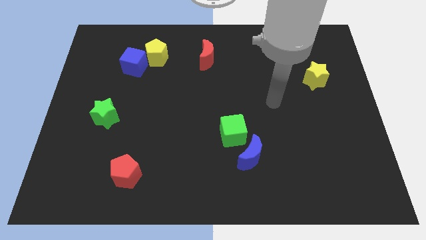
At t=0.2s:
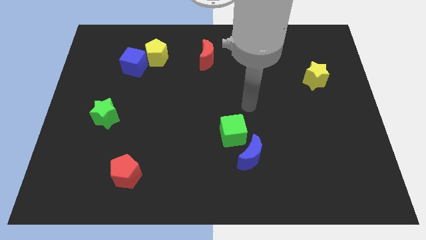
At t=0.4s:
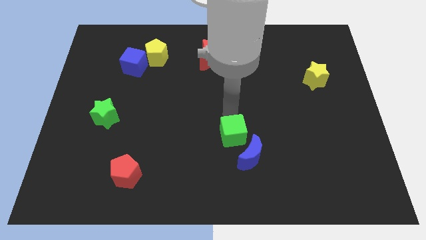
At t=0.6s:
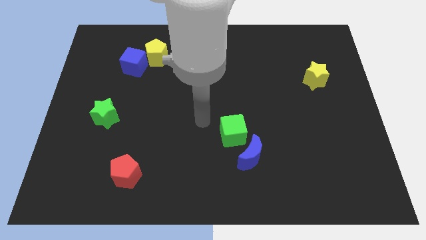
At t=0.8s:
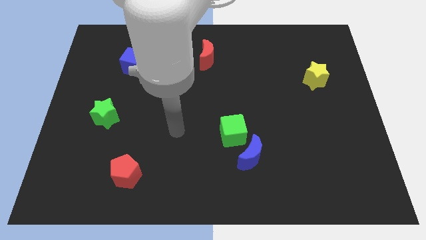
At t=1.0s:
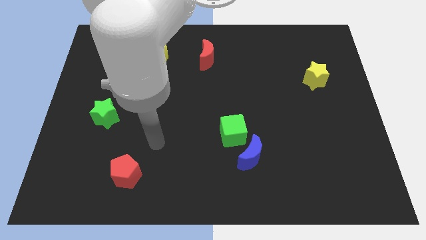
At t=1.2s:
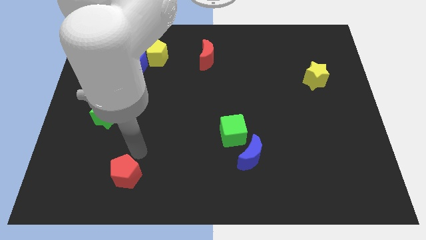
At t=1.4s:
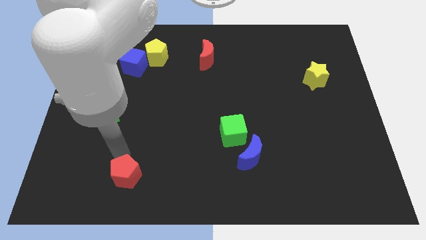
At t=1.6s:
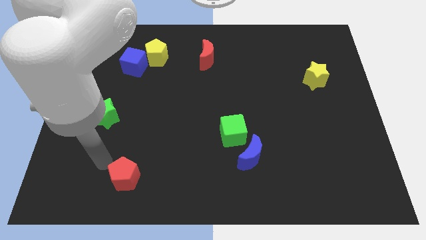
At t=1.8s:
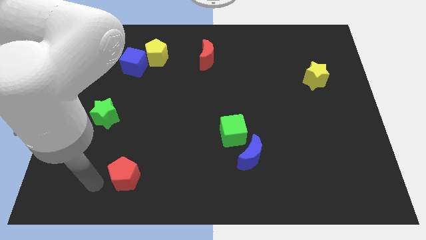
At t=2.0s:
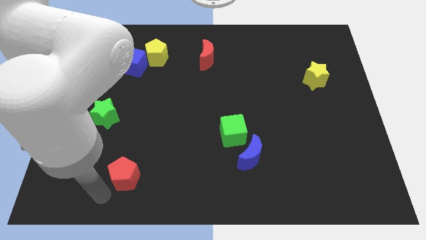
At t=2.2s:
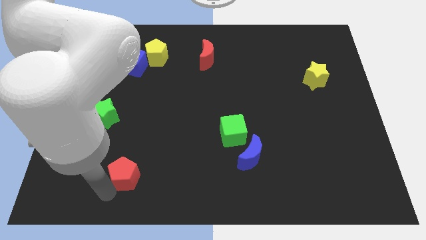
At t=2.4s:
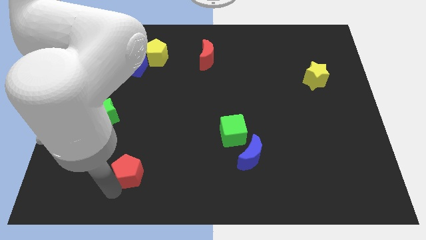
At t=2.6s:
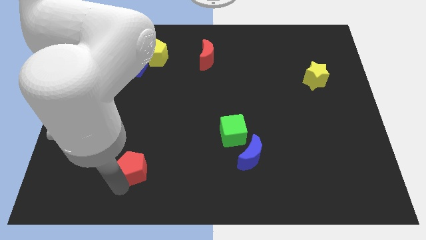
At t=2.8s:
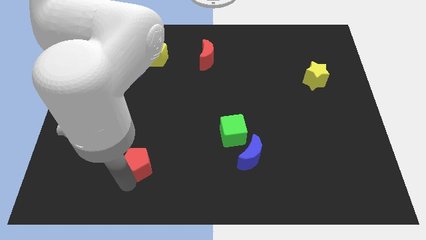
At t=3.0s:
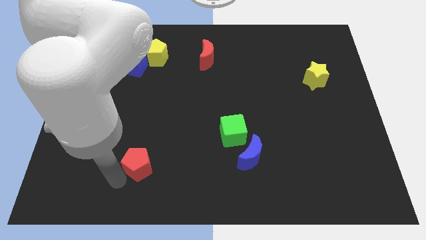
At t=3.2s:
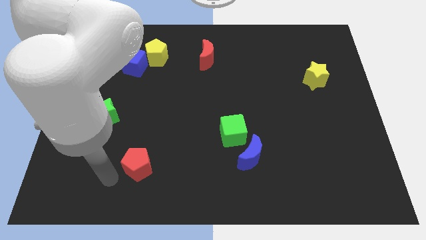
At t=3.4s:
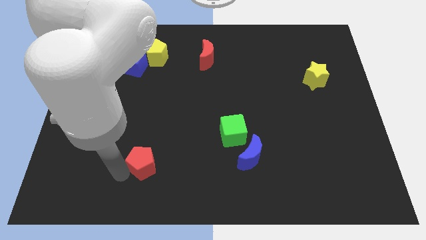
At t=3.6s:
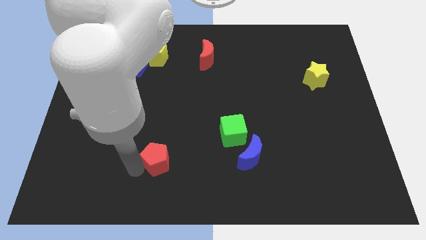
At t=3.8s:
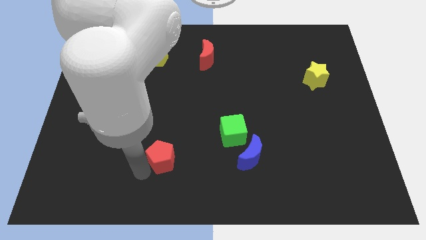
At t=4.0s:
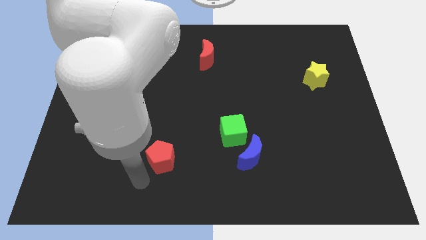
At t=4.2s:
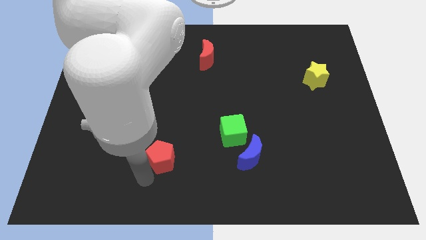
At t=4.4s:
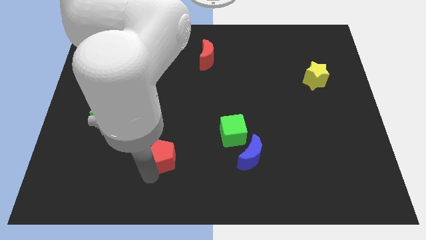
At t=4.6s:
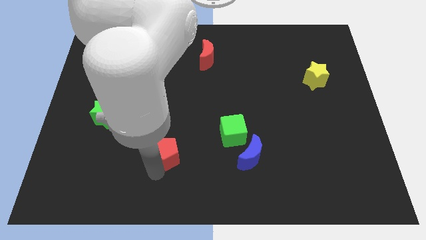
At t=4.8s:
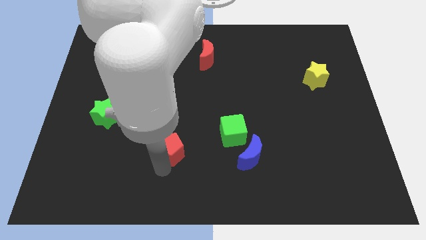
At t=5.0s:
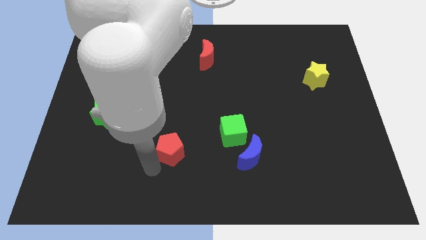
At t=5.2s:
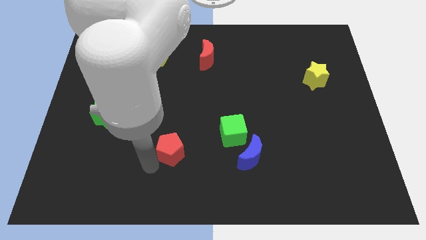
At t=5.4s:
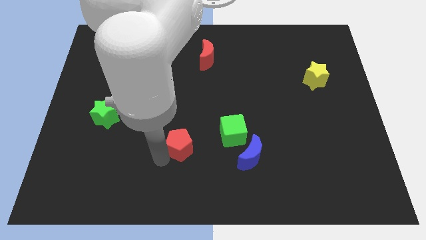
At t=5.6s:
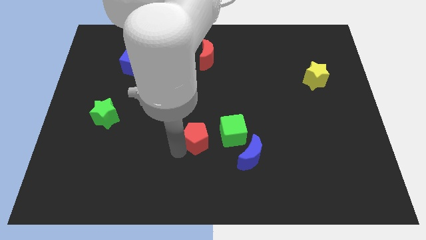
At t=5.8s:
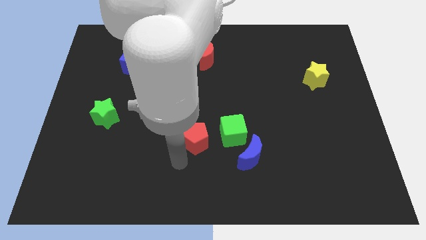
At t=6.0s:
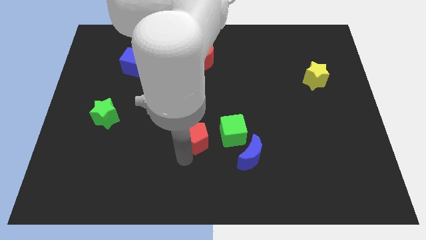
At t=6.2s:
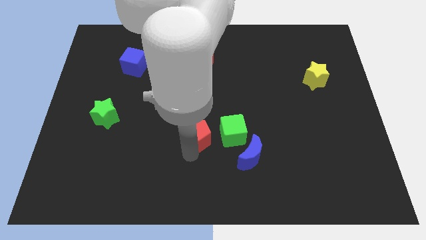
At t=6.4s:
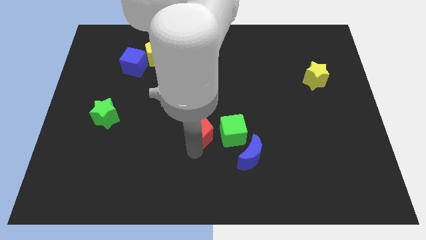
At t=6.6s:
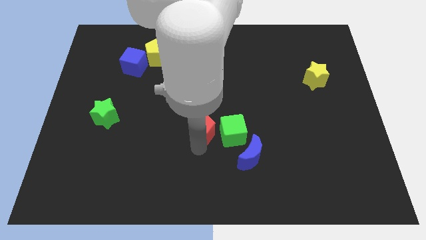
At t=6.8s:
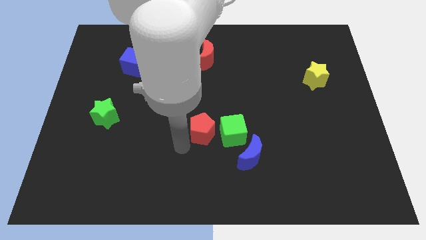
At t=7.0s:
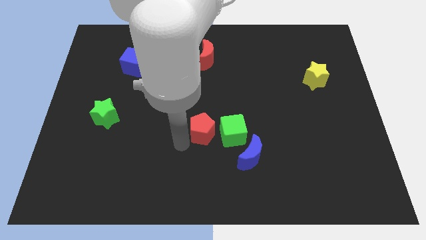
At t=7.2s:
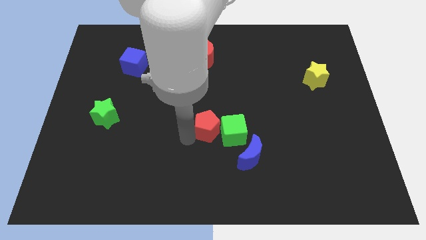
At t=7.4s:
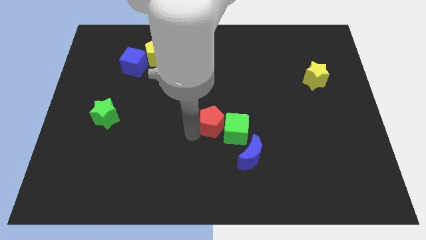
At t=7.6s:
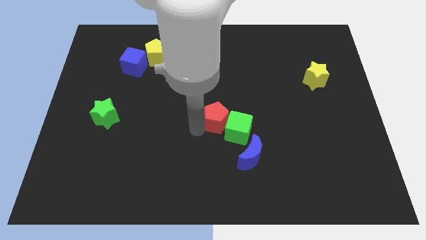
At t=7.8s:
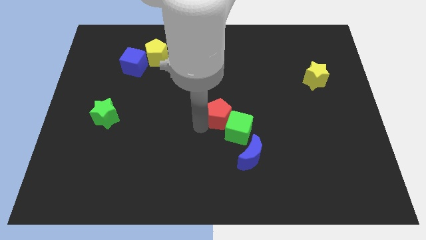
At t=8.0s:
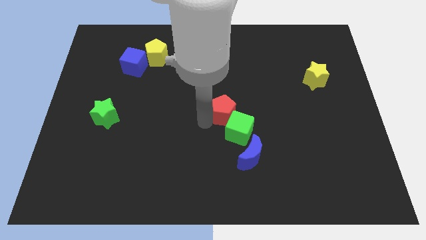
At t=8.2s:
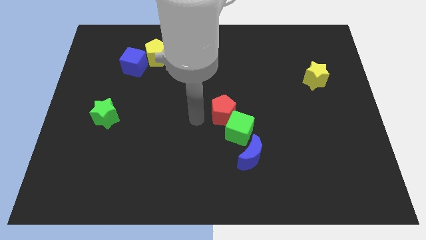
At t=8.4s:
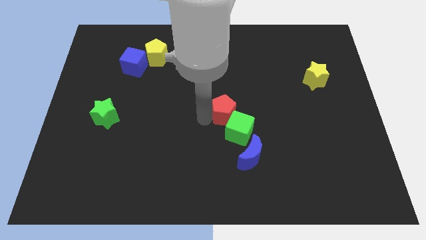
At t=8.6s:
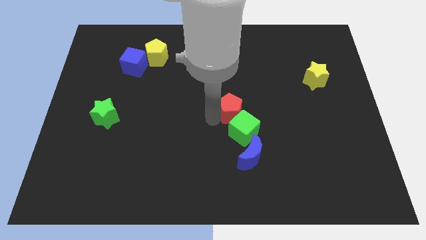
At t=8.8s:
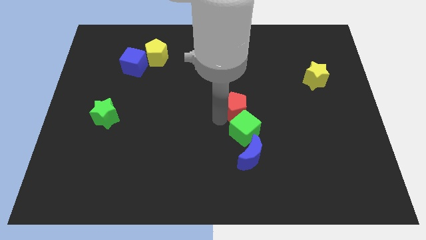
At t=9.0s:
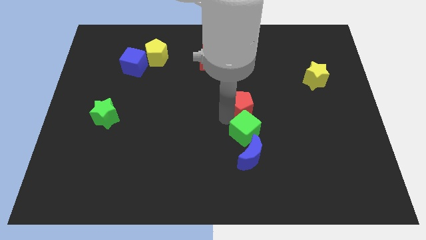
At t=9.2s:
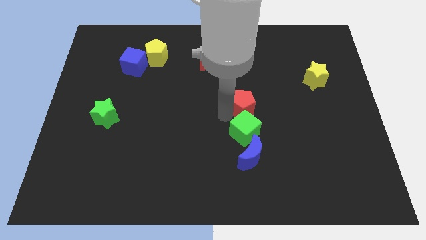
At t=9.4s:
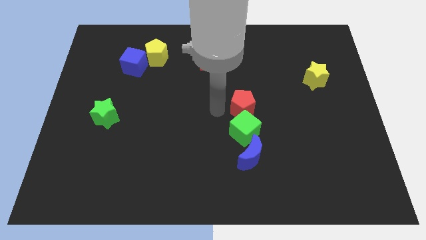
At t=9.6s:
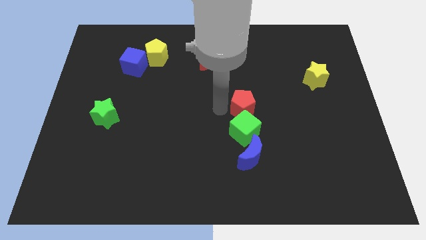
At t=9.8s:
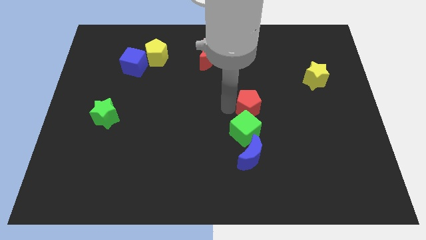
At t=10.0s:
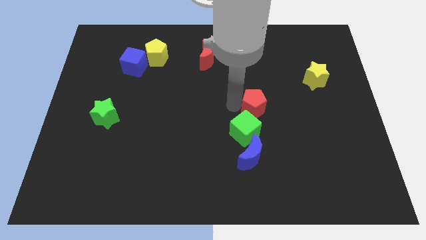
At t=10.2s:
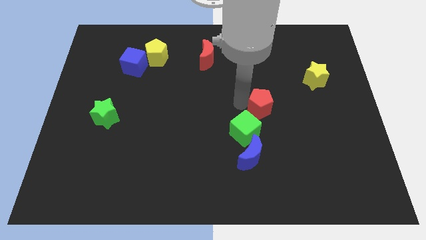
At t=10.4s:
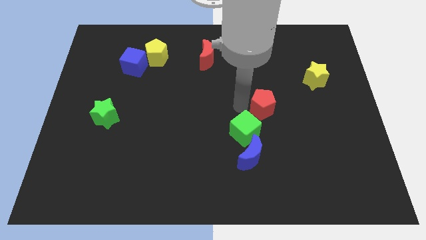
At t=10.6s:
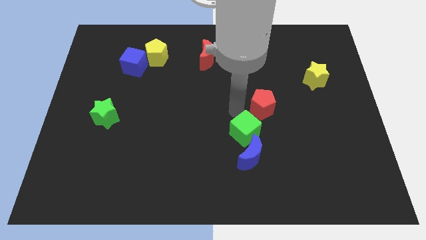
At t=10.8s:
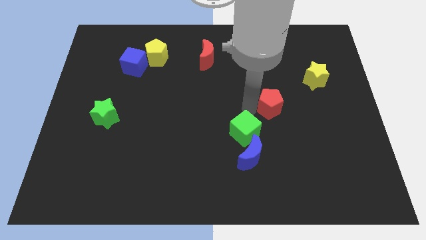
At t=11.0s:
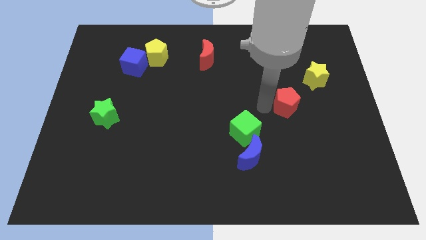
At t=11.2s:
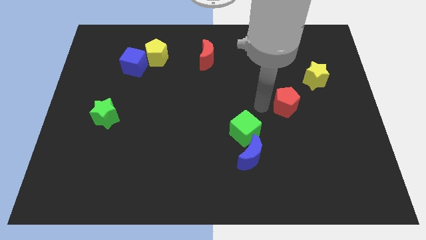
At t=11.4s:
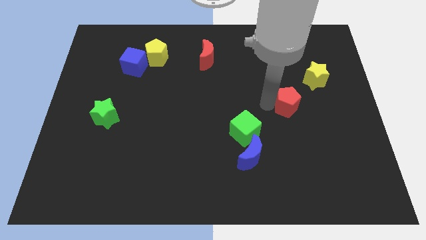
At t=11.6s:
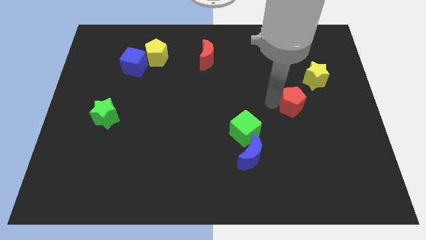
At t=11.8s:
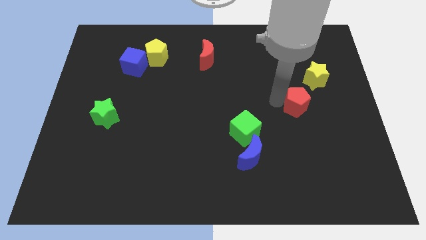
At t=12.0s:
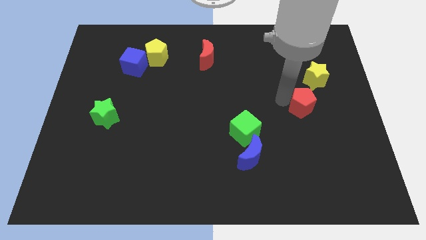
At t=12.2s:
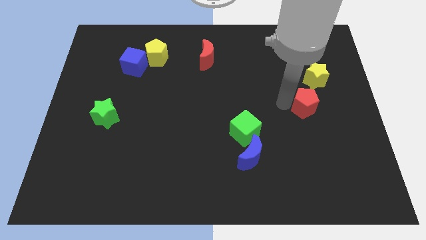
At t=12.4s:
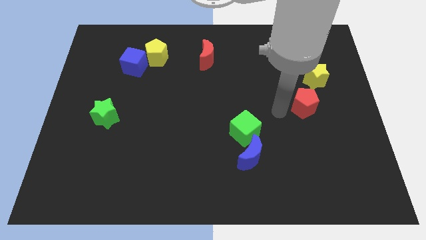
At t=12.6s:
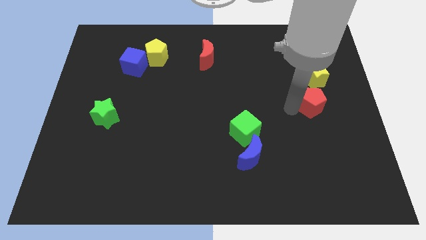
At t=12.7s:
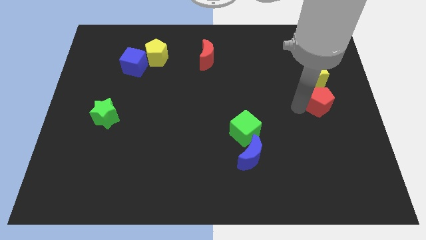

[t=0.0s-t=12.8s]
put the red pentagon to the right side of the board

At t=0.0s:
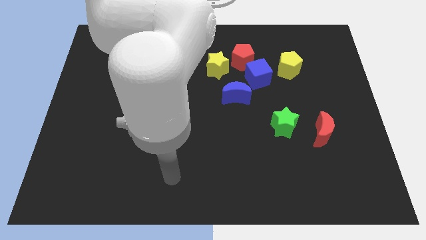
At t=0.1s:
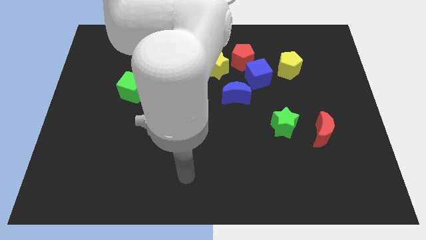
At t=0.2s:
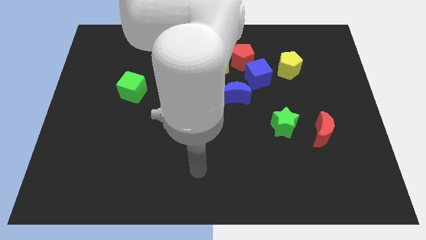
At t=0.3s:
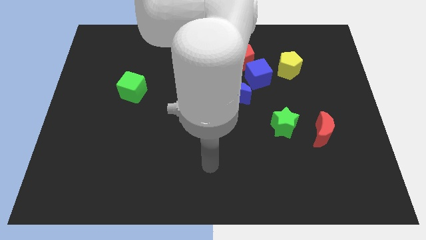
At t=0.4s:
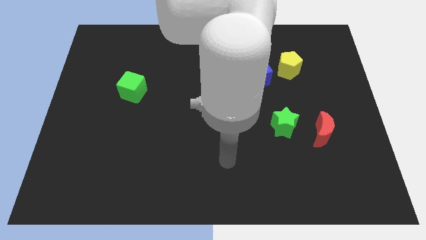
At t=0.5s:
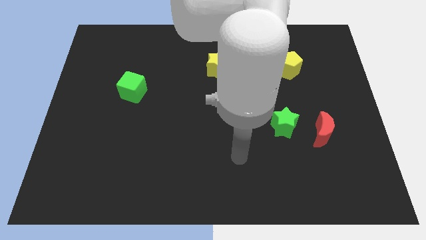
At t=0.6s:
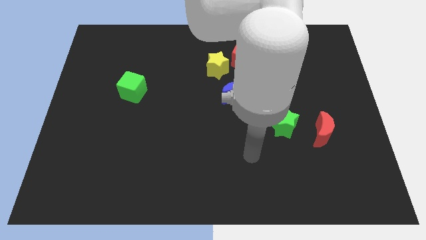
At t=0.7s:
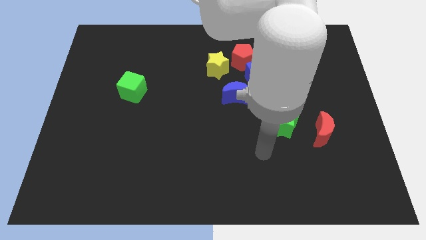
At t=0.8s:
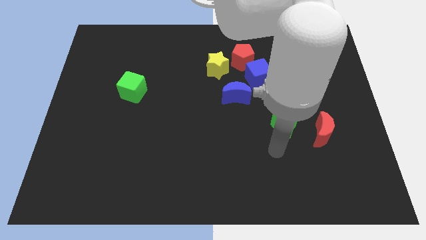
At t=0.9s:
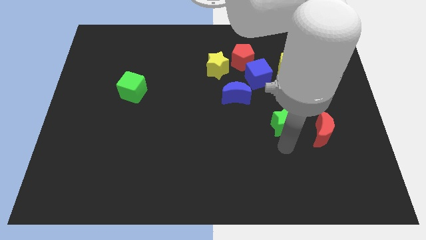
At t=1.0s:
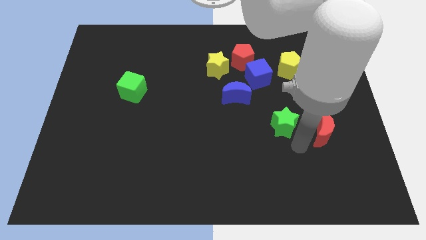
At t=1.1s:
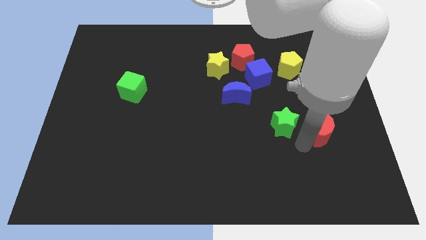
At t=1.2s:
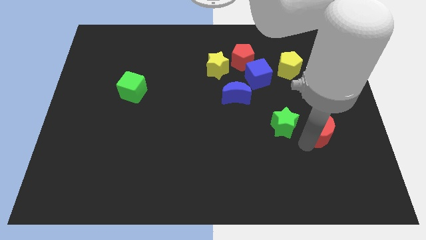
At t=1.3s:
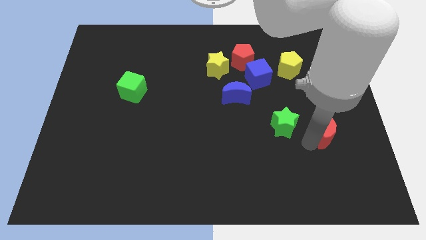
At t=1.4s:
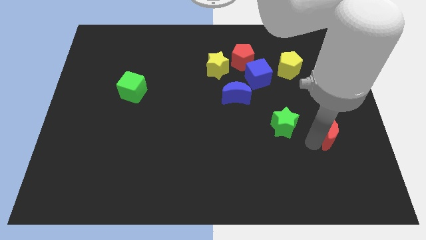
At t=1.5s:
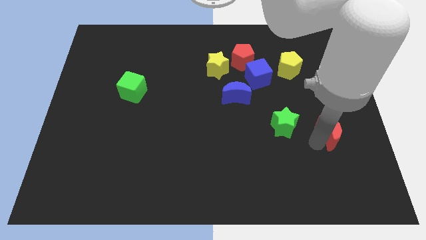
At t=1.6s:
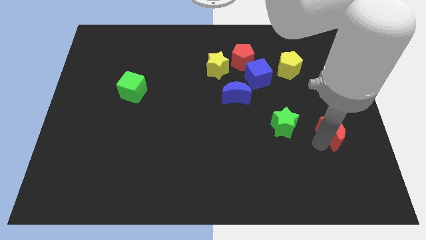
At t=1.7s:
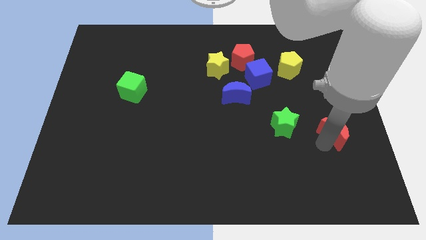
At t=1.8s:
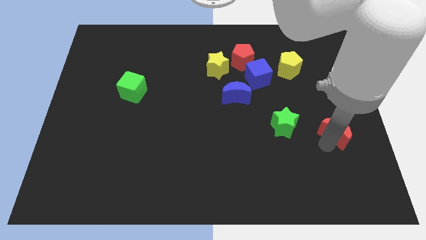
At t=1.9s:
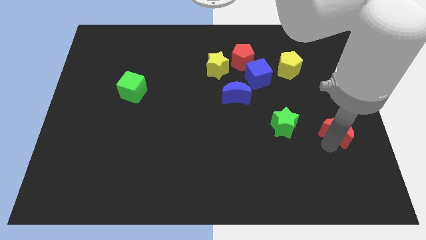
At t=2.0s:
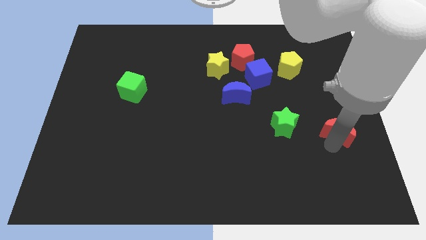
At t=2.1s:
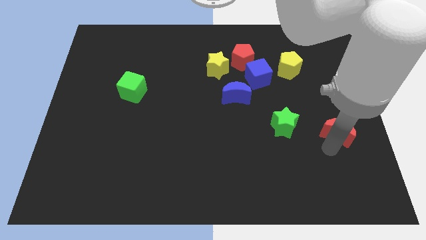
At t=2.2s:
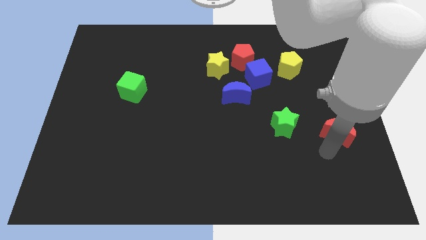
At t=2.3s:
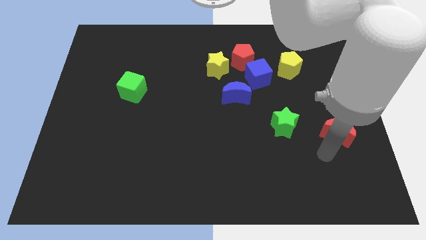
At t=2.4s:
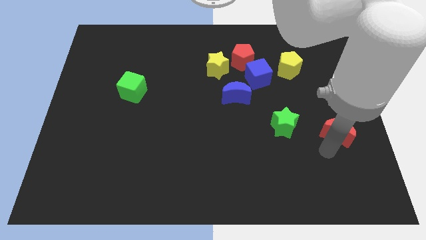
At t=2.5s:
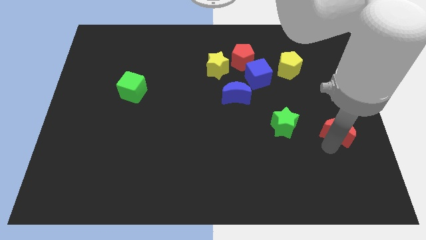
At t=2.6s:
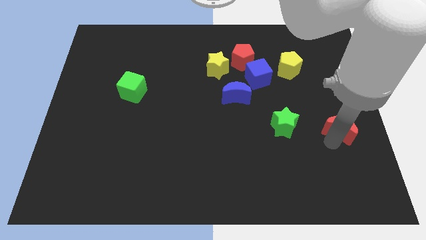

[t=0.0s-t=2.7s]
move the red moon to the right side
